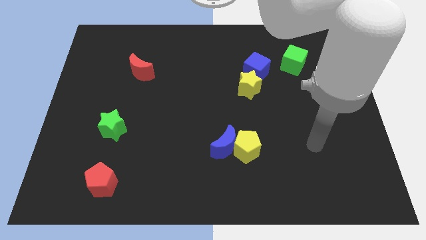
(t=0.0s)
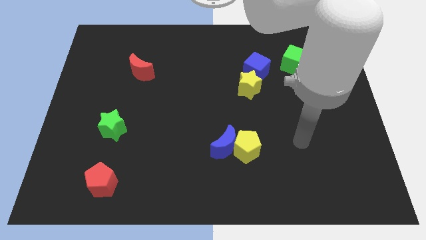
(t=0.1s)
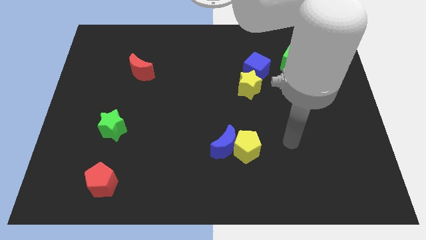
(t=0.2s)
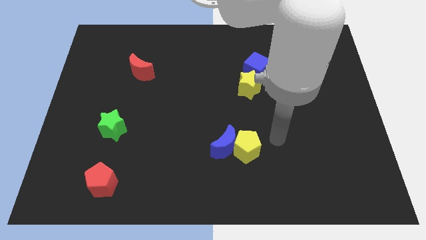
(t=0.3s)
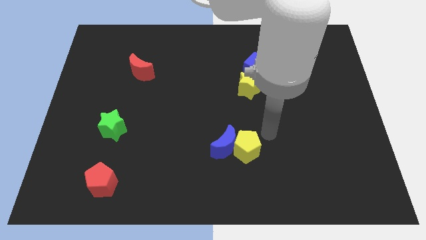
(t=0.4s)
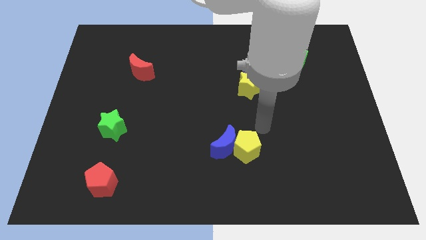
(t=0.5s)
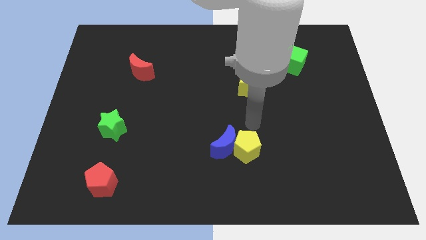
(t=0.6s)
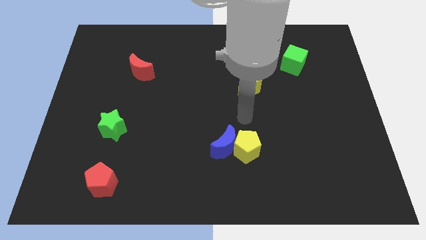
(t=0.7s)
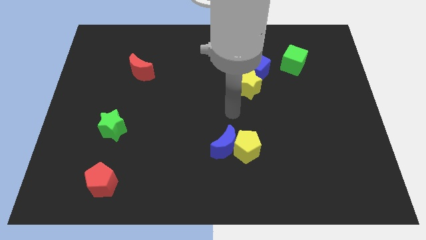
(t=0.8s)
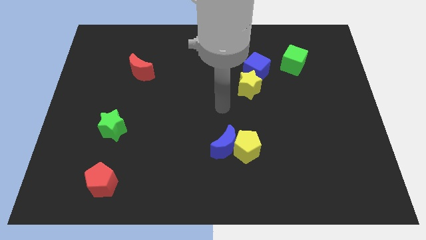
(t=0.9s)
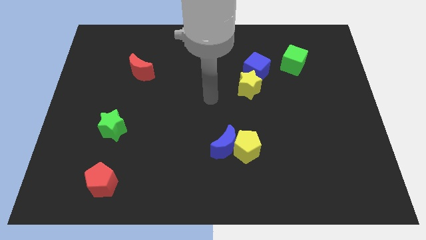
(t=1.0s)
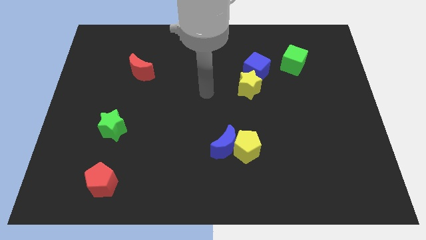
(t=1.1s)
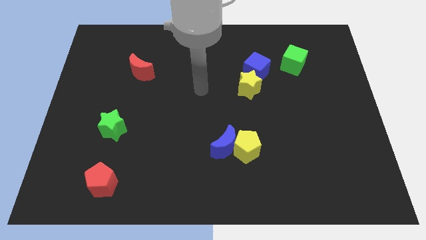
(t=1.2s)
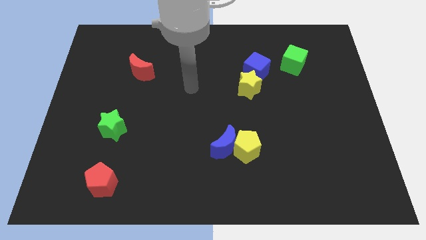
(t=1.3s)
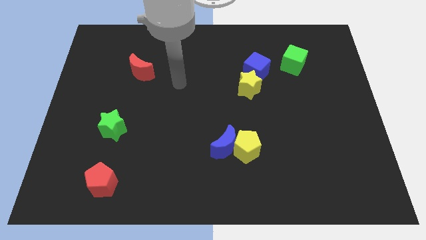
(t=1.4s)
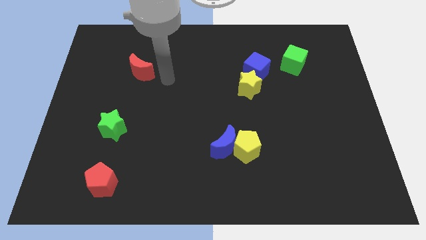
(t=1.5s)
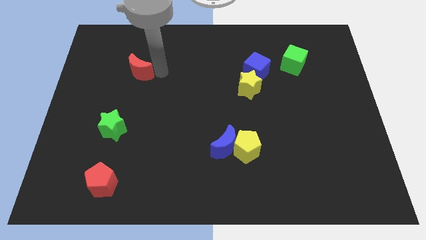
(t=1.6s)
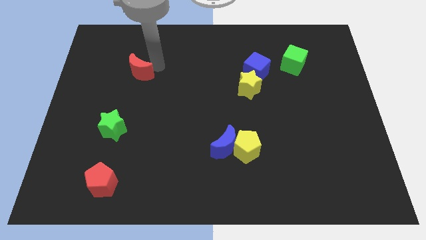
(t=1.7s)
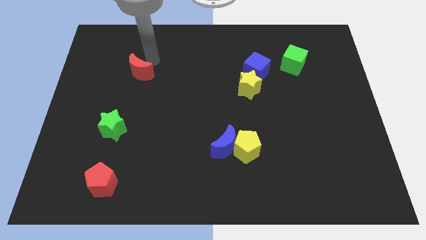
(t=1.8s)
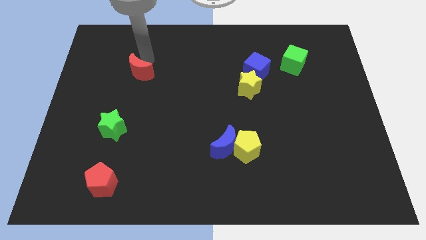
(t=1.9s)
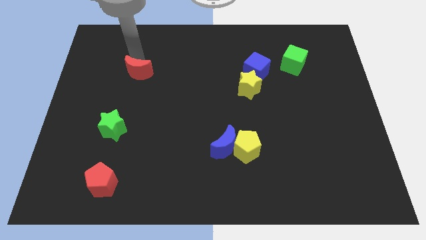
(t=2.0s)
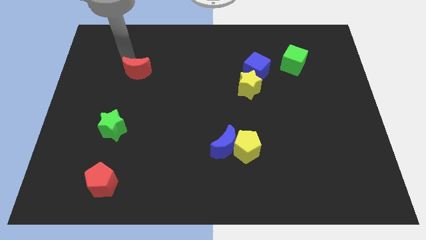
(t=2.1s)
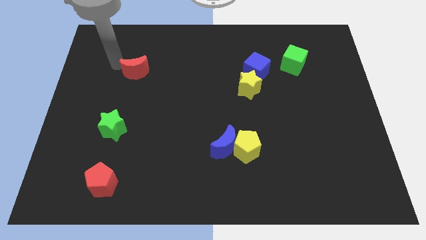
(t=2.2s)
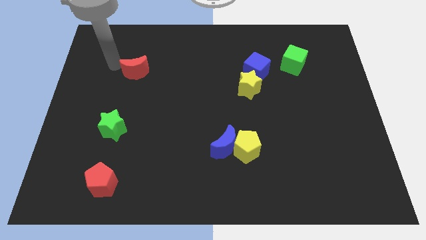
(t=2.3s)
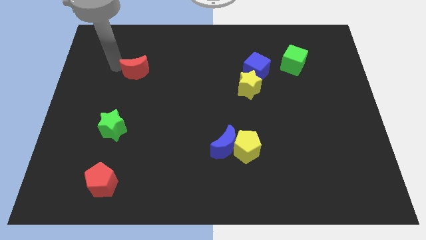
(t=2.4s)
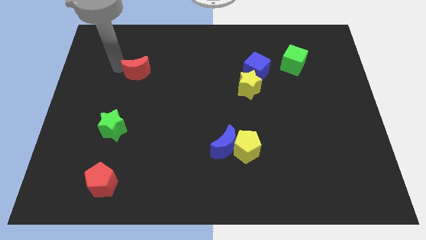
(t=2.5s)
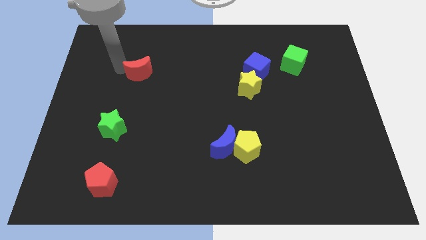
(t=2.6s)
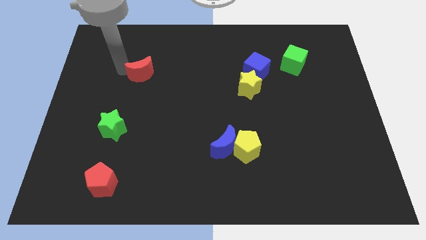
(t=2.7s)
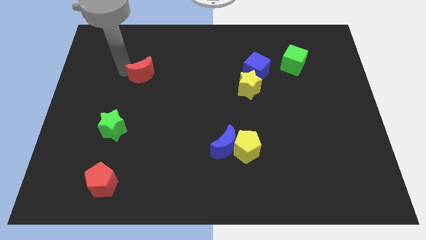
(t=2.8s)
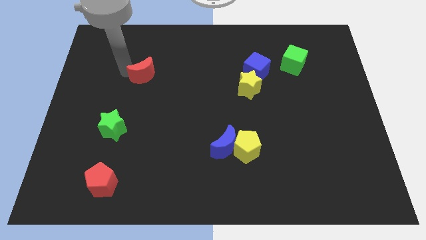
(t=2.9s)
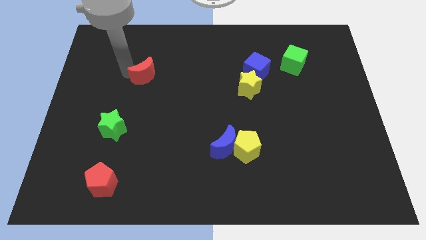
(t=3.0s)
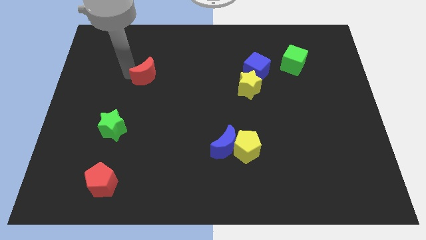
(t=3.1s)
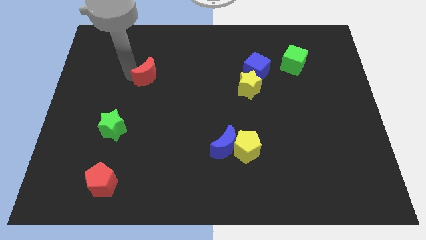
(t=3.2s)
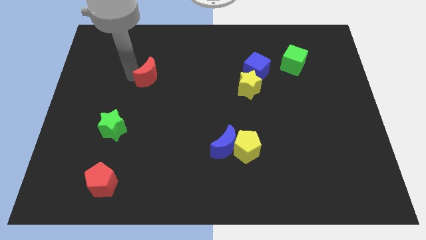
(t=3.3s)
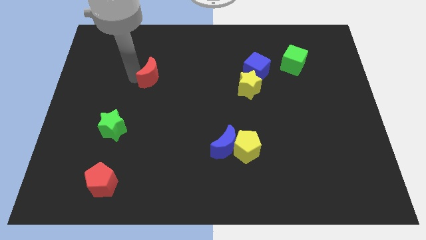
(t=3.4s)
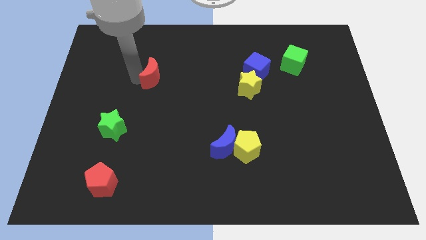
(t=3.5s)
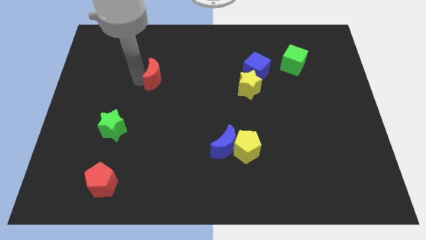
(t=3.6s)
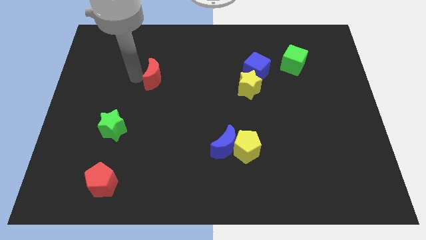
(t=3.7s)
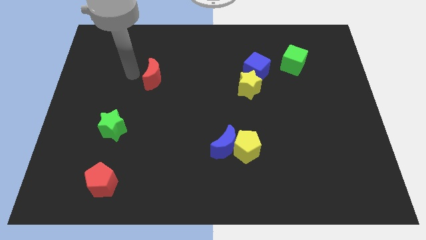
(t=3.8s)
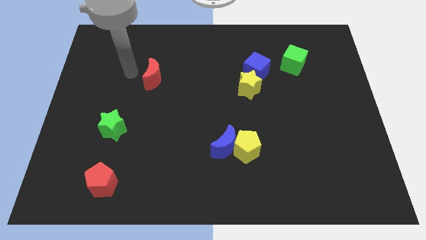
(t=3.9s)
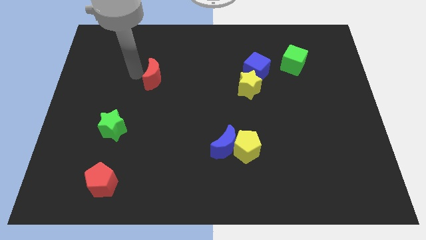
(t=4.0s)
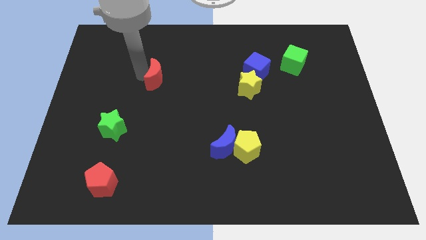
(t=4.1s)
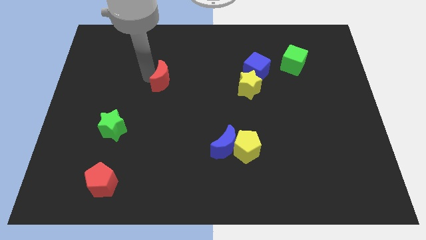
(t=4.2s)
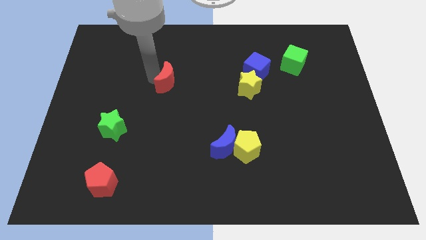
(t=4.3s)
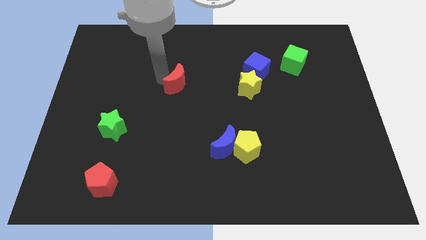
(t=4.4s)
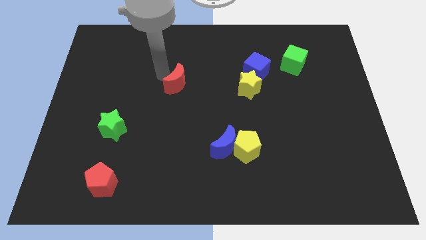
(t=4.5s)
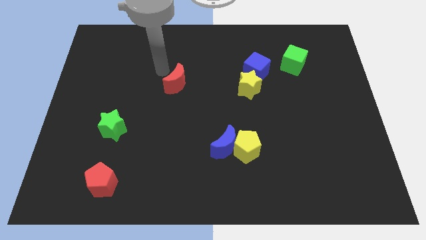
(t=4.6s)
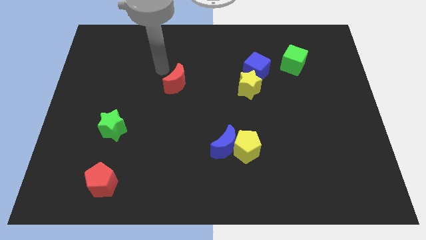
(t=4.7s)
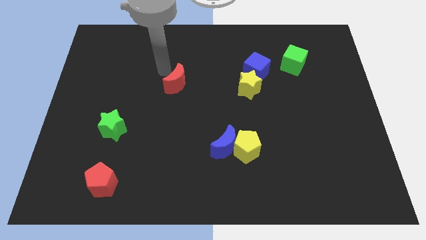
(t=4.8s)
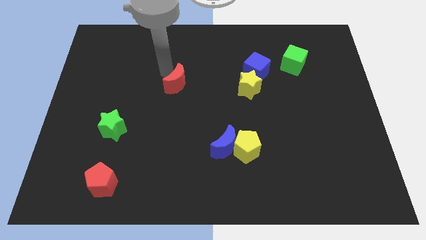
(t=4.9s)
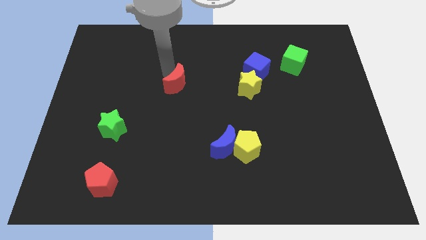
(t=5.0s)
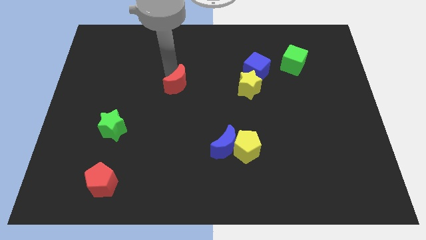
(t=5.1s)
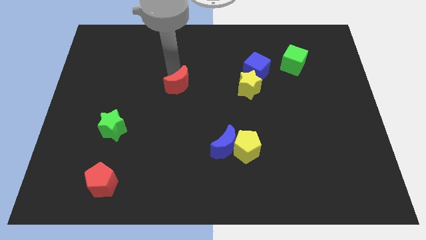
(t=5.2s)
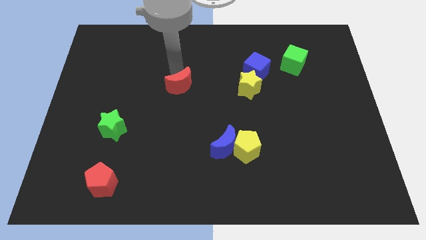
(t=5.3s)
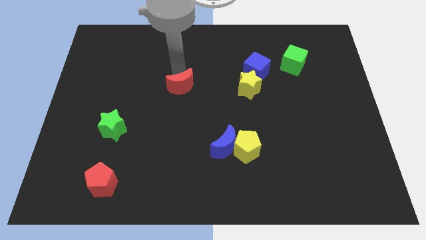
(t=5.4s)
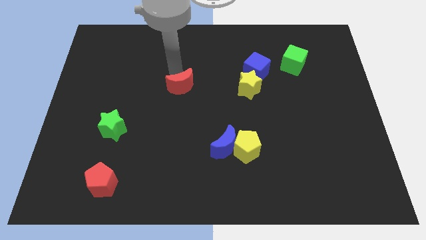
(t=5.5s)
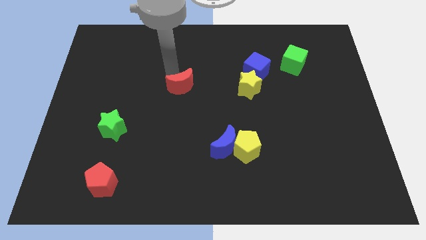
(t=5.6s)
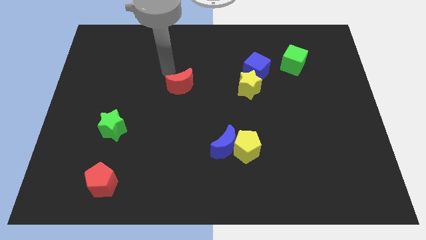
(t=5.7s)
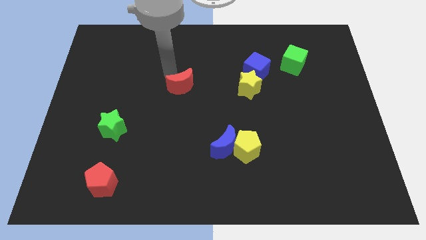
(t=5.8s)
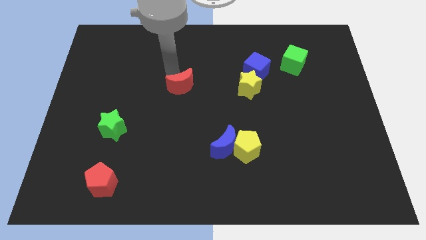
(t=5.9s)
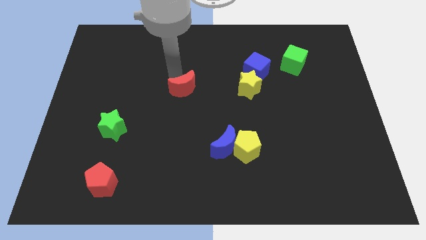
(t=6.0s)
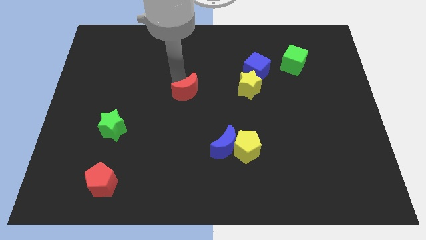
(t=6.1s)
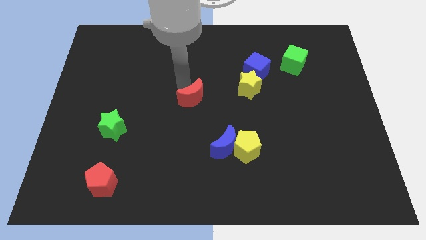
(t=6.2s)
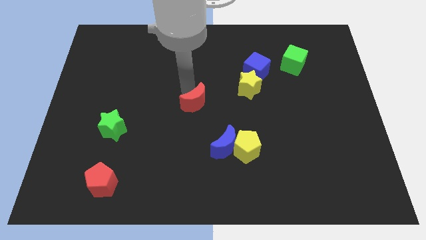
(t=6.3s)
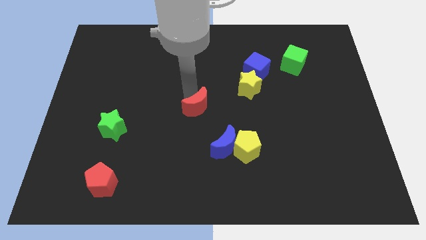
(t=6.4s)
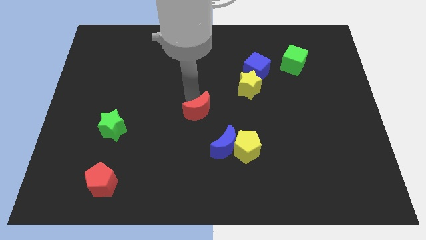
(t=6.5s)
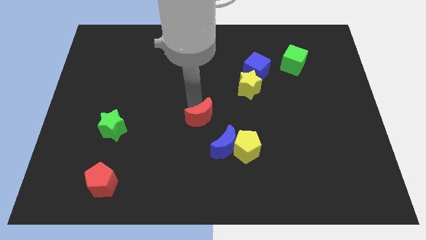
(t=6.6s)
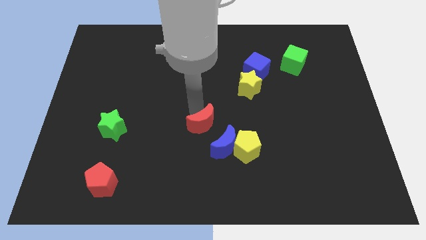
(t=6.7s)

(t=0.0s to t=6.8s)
slide the red moon diagonally up and to the left of the yellow pentagon

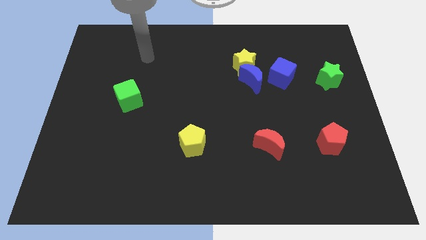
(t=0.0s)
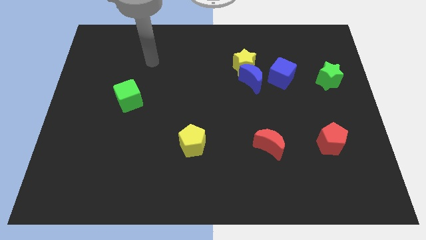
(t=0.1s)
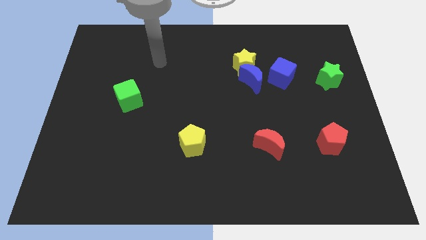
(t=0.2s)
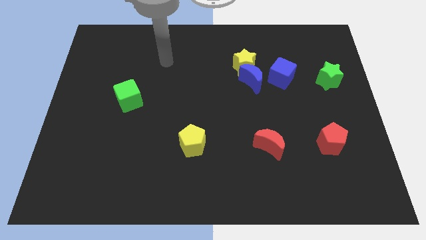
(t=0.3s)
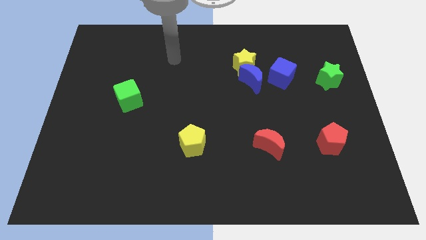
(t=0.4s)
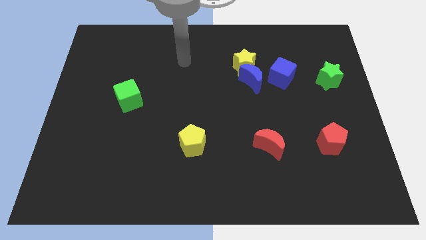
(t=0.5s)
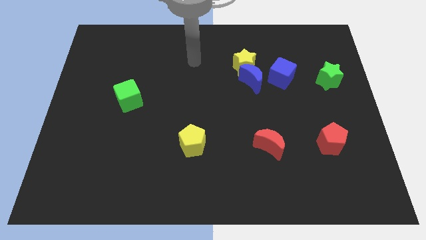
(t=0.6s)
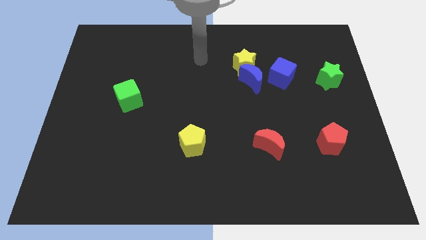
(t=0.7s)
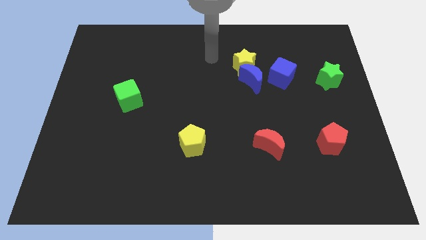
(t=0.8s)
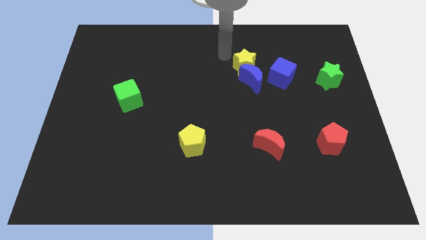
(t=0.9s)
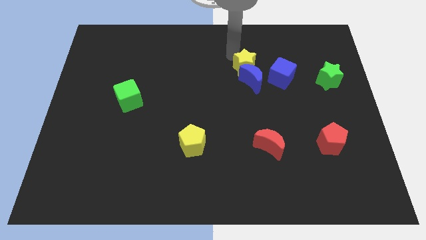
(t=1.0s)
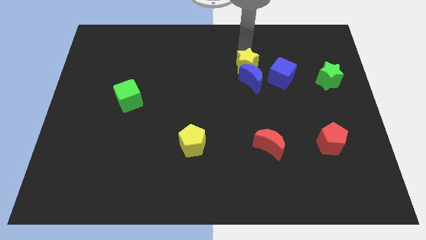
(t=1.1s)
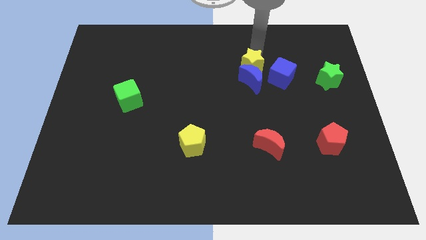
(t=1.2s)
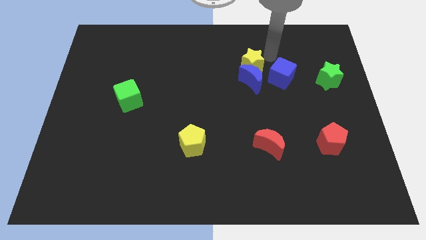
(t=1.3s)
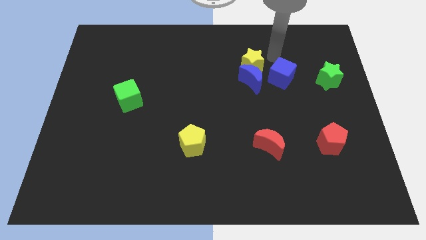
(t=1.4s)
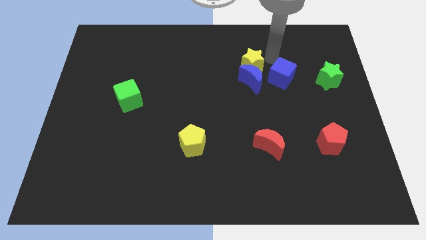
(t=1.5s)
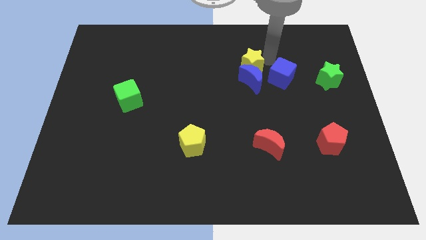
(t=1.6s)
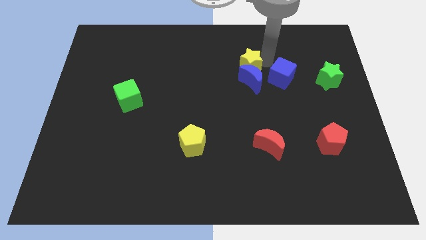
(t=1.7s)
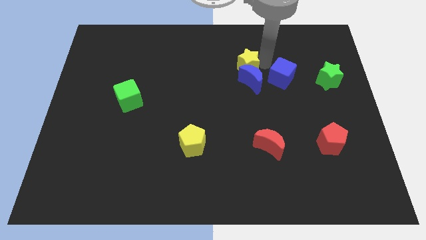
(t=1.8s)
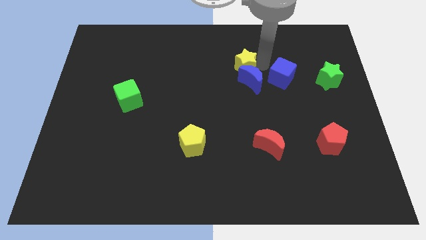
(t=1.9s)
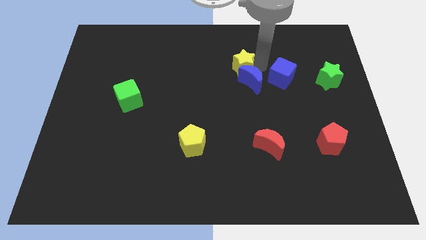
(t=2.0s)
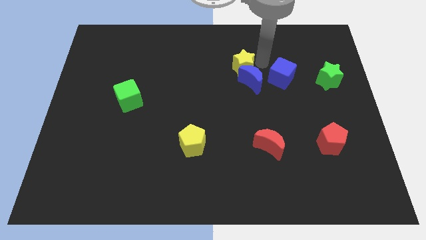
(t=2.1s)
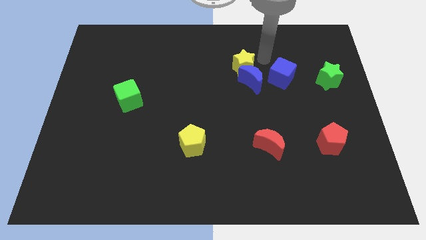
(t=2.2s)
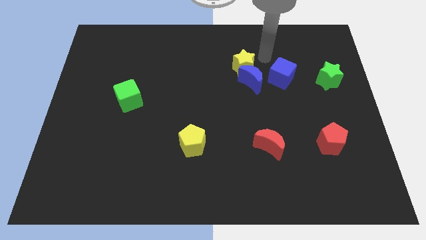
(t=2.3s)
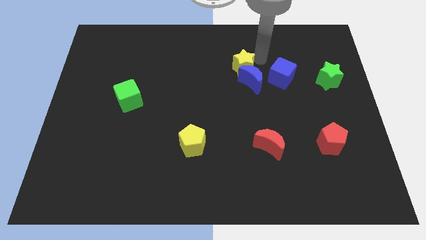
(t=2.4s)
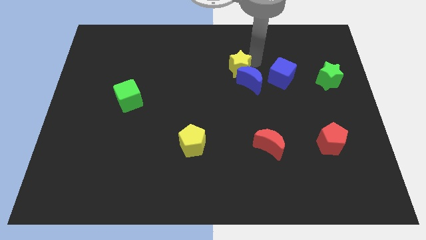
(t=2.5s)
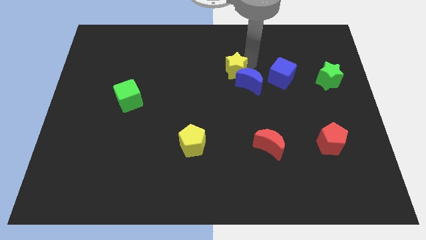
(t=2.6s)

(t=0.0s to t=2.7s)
slide the yellow star left of the blue moon
